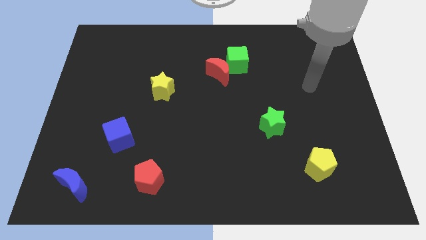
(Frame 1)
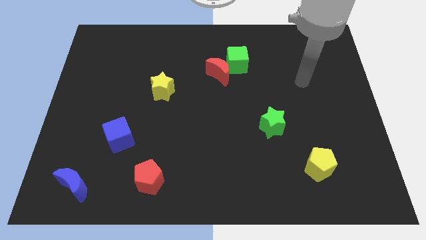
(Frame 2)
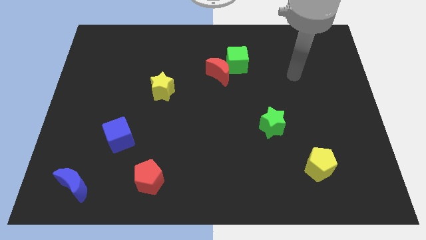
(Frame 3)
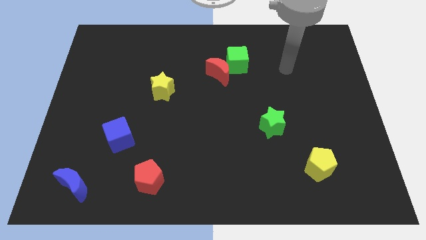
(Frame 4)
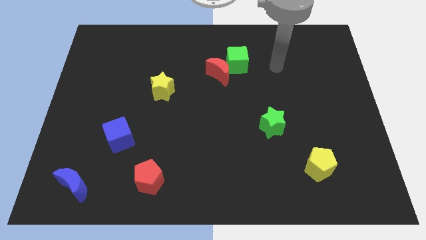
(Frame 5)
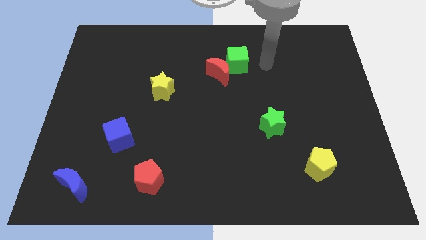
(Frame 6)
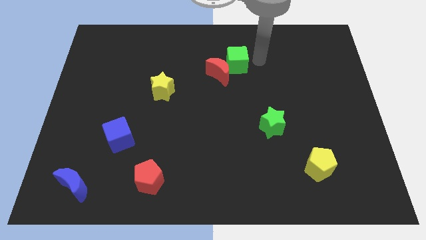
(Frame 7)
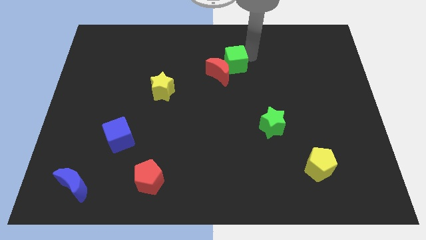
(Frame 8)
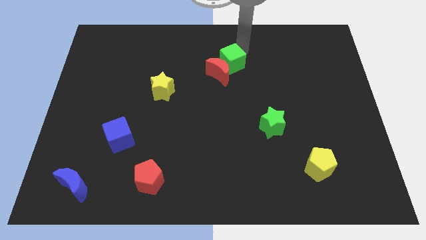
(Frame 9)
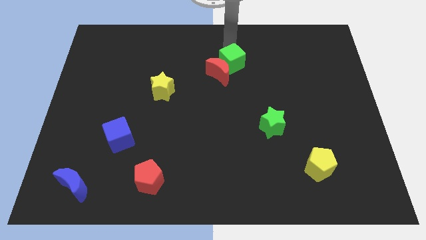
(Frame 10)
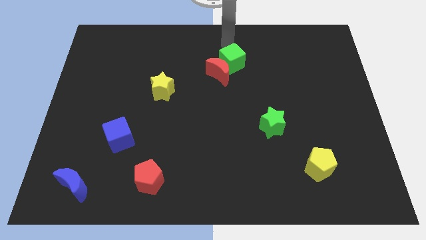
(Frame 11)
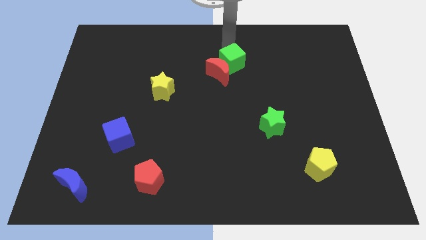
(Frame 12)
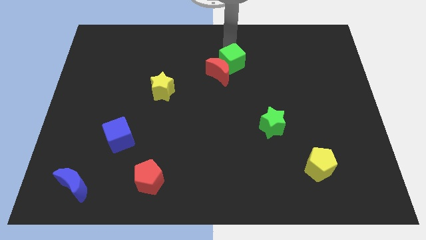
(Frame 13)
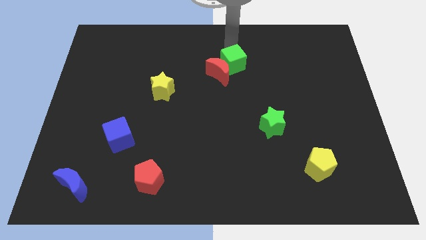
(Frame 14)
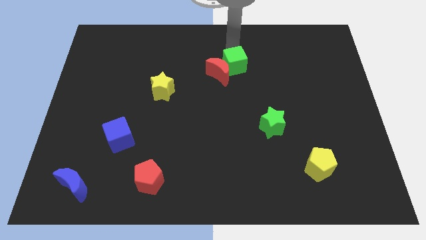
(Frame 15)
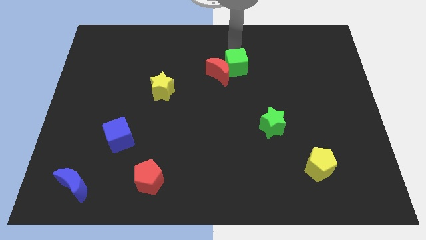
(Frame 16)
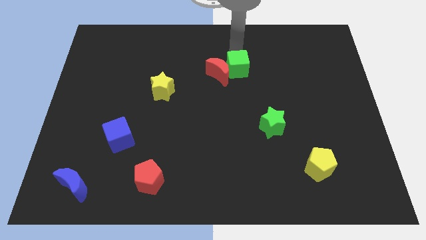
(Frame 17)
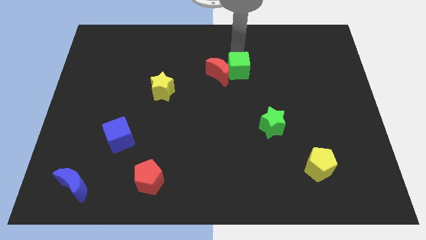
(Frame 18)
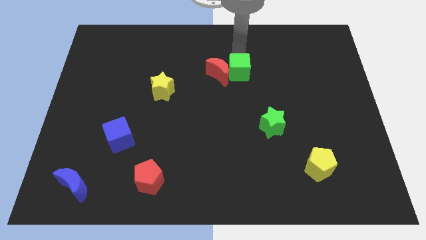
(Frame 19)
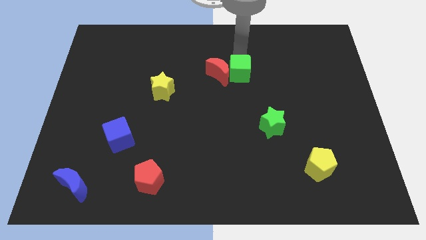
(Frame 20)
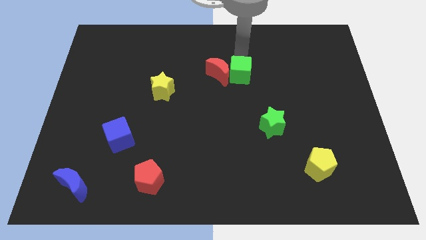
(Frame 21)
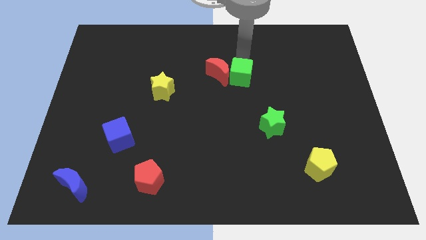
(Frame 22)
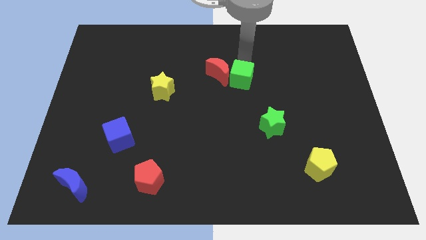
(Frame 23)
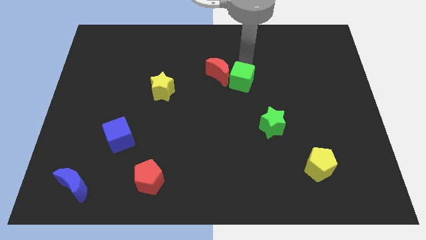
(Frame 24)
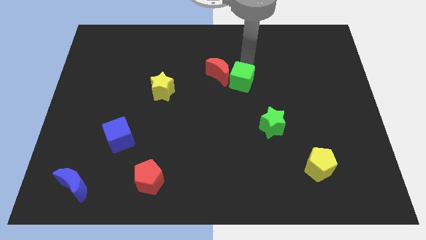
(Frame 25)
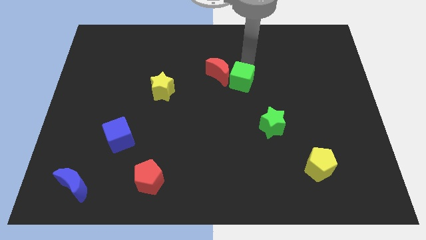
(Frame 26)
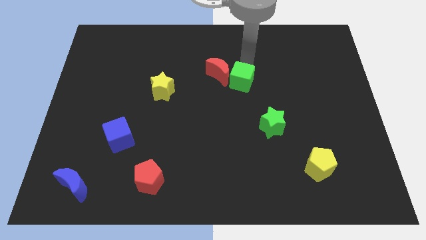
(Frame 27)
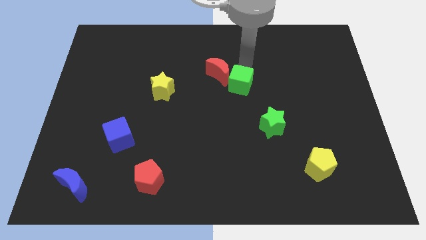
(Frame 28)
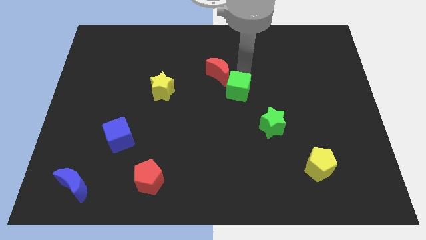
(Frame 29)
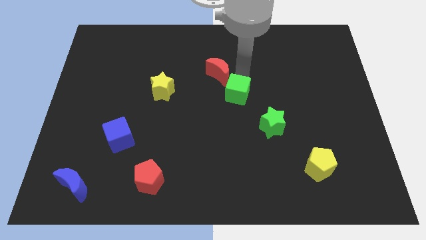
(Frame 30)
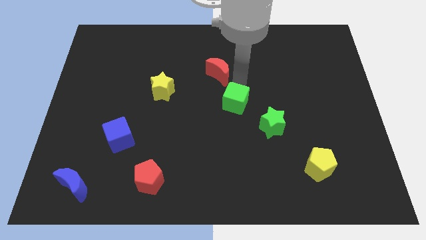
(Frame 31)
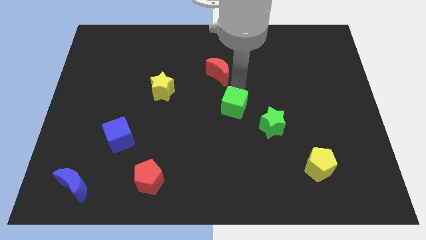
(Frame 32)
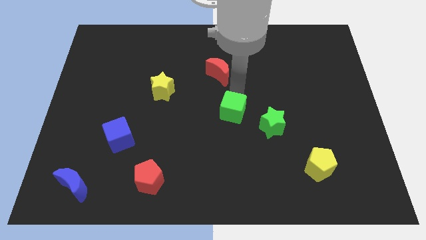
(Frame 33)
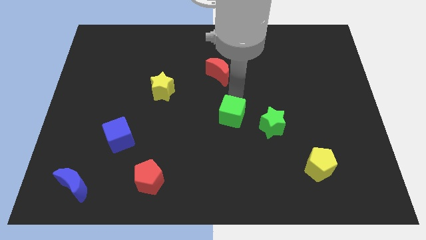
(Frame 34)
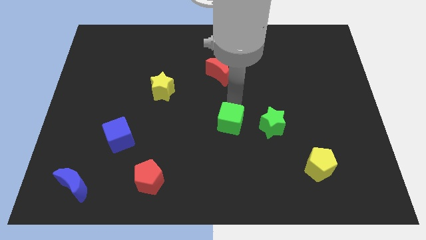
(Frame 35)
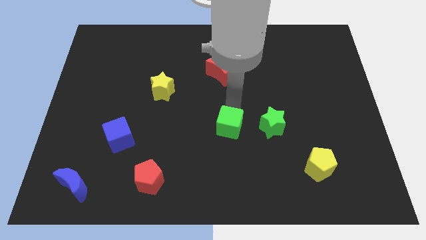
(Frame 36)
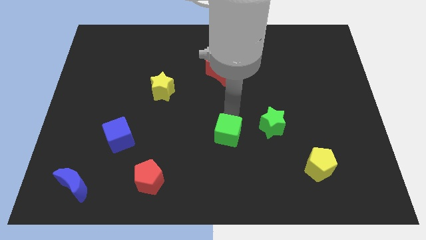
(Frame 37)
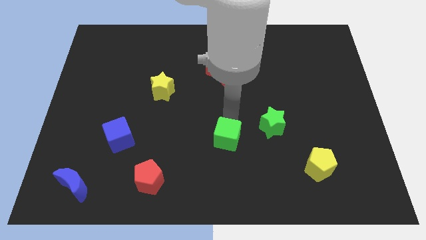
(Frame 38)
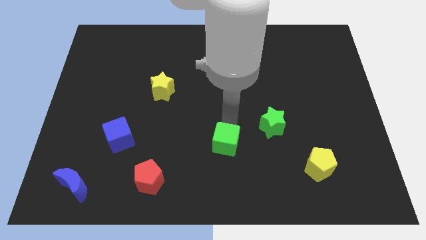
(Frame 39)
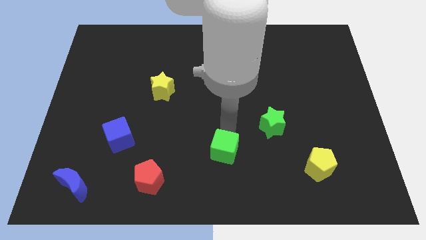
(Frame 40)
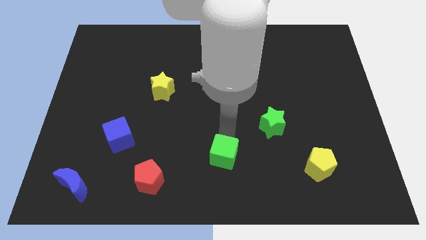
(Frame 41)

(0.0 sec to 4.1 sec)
push the green cube to the bottom

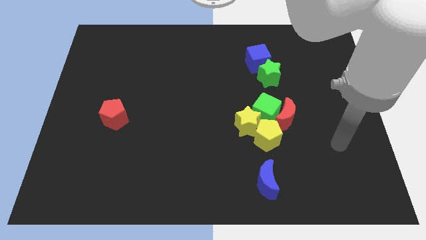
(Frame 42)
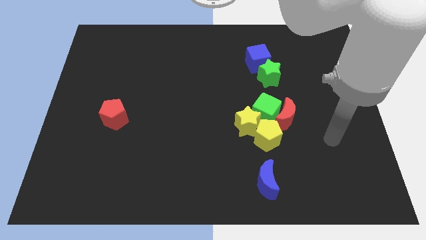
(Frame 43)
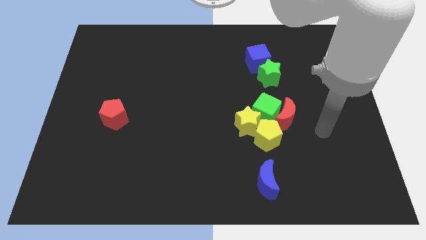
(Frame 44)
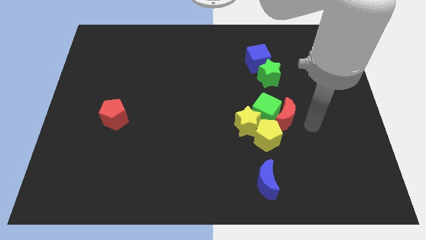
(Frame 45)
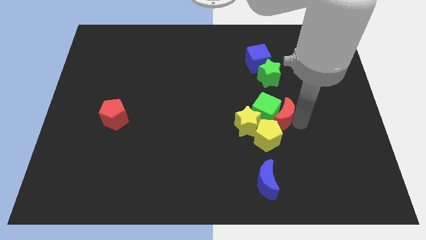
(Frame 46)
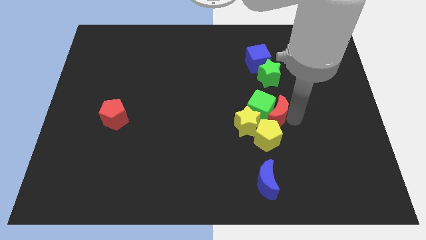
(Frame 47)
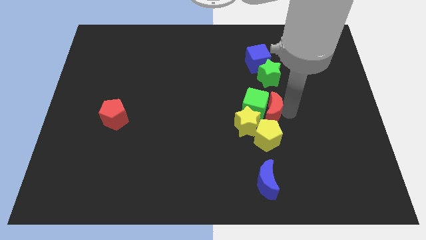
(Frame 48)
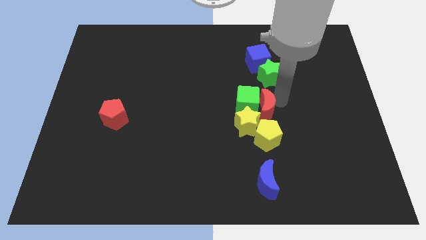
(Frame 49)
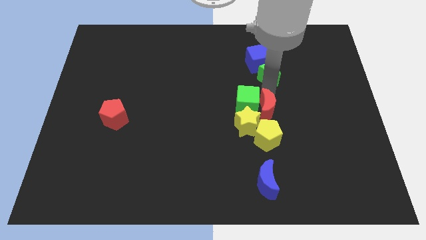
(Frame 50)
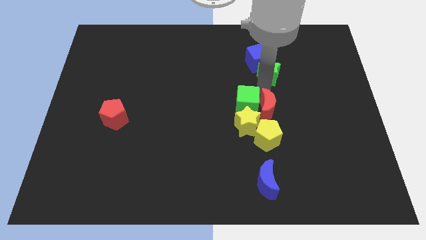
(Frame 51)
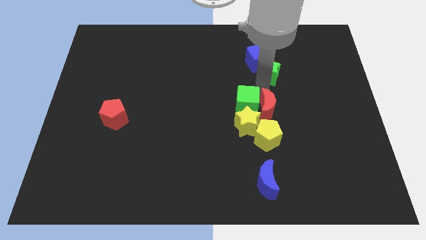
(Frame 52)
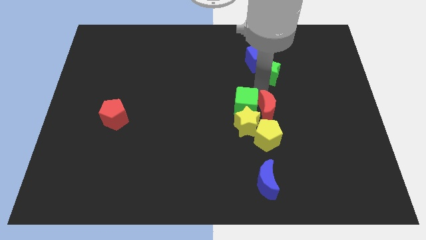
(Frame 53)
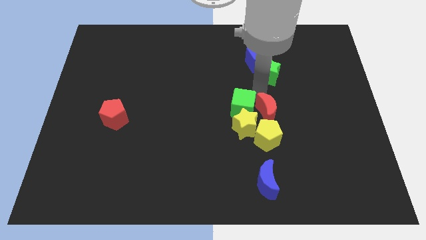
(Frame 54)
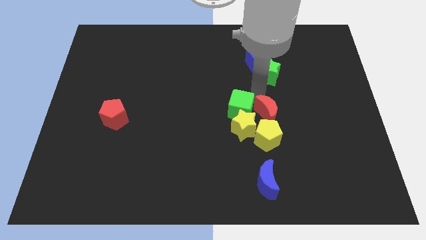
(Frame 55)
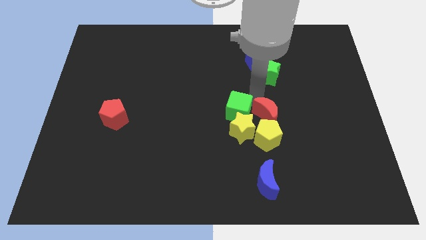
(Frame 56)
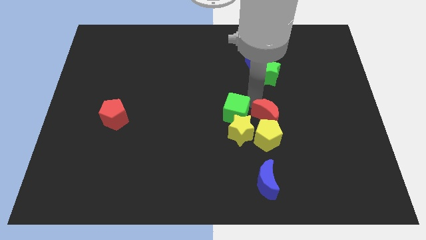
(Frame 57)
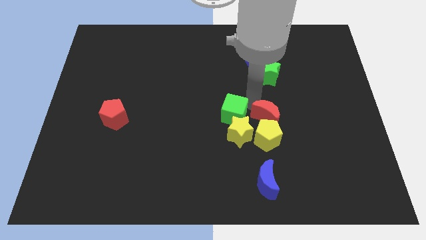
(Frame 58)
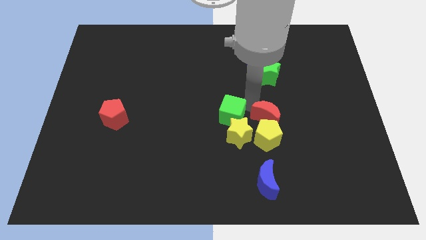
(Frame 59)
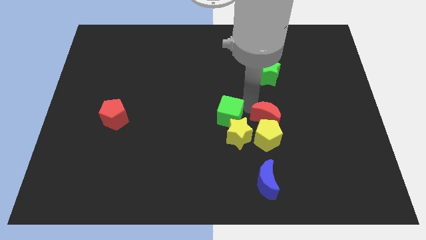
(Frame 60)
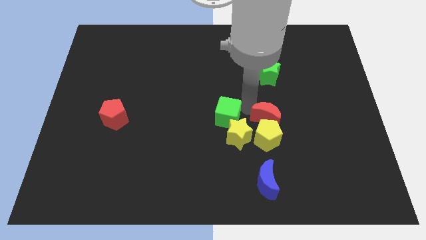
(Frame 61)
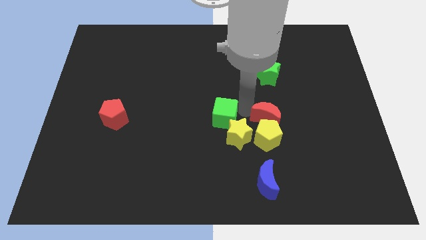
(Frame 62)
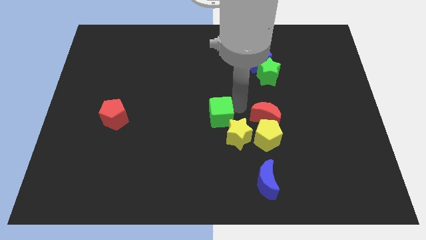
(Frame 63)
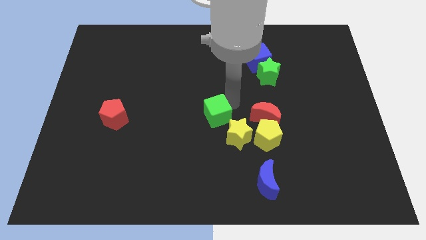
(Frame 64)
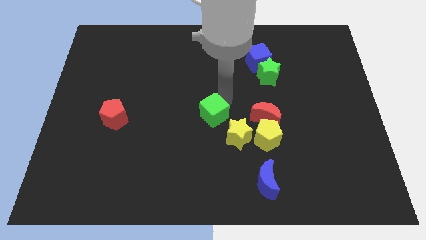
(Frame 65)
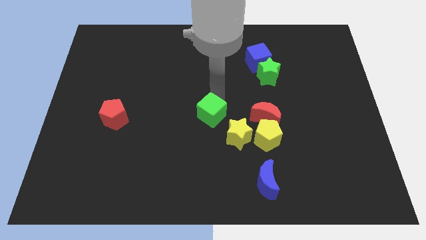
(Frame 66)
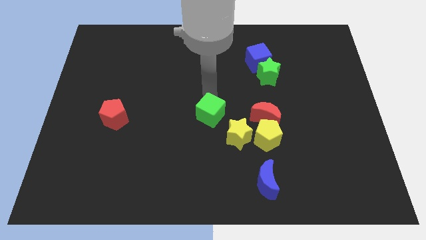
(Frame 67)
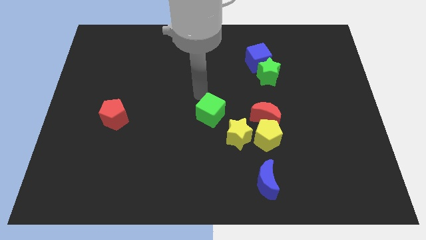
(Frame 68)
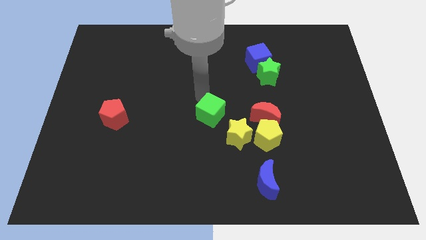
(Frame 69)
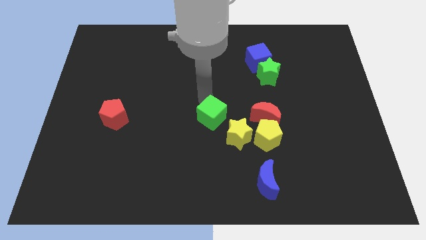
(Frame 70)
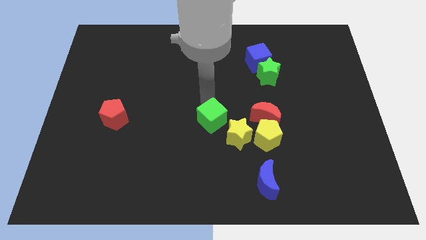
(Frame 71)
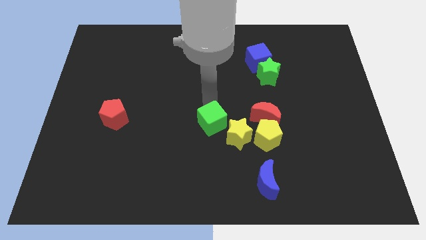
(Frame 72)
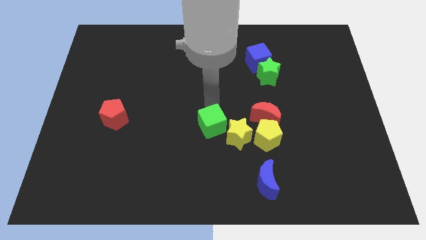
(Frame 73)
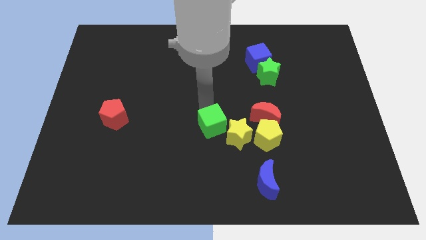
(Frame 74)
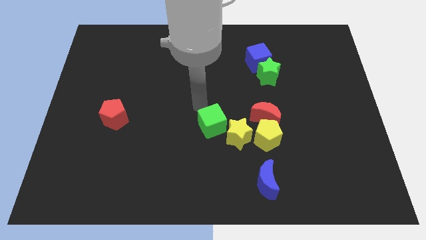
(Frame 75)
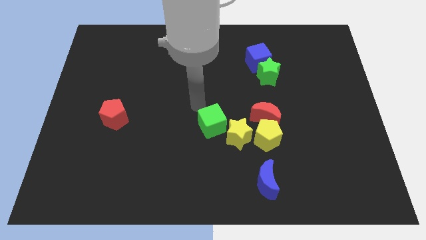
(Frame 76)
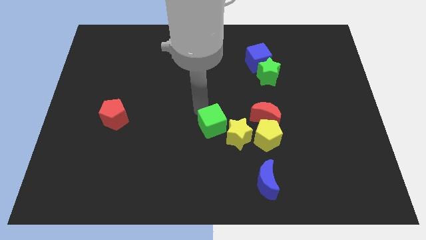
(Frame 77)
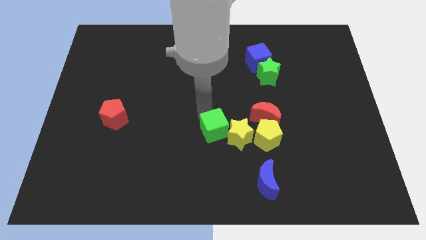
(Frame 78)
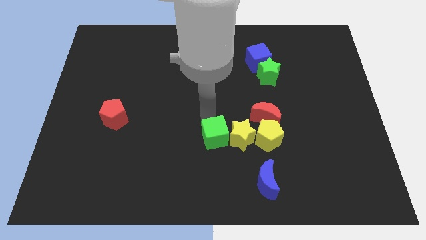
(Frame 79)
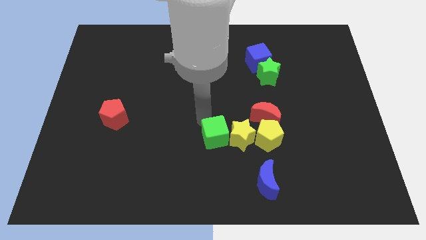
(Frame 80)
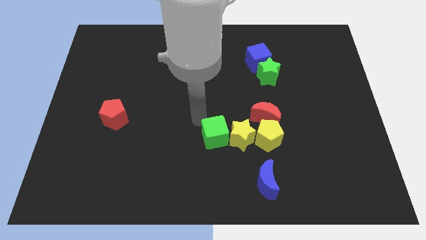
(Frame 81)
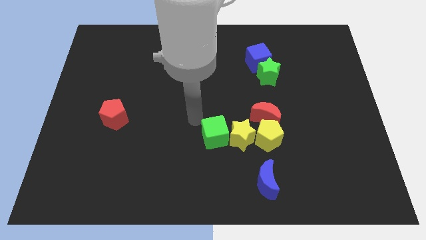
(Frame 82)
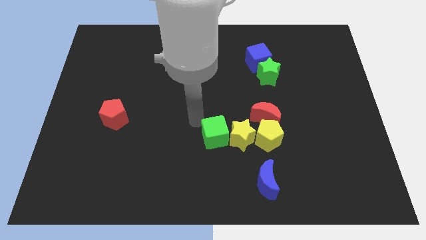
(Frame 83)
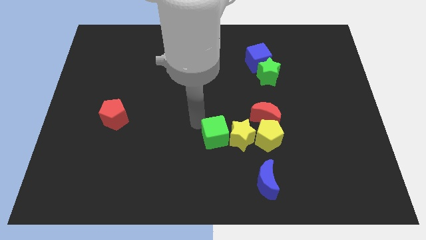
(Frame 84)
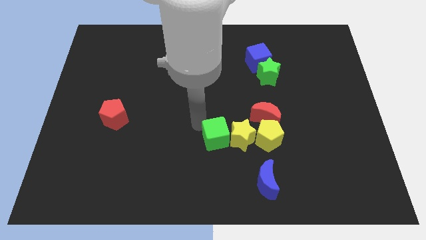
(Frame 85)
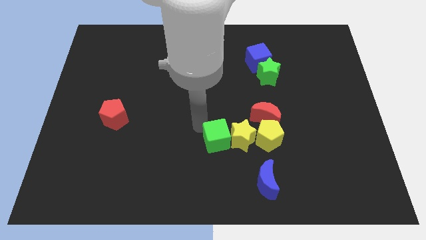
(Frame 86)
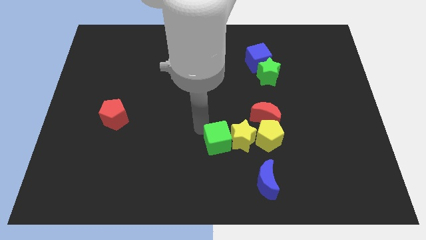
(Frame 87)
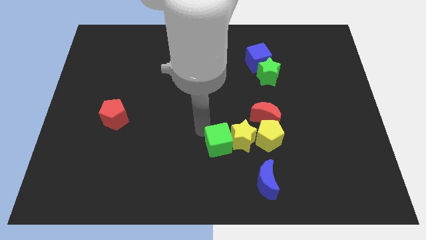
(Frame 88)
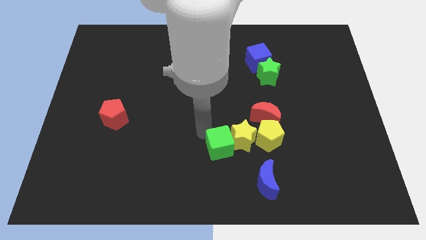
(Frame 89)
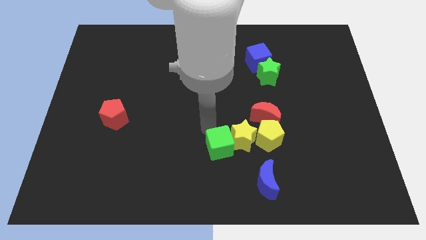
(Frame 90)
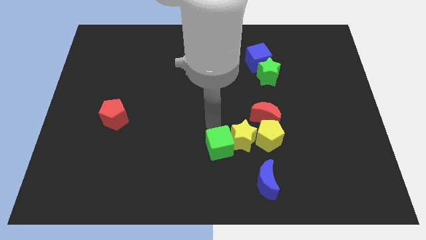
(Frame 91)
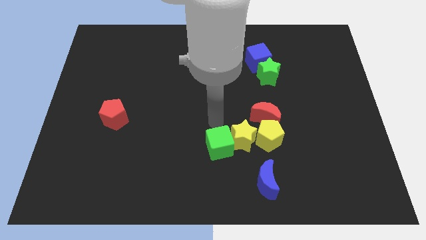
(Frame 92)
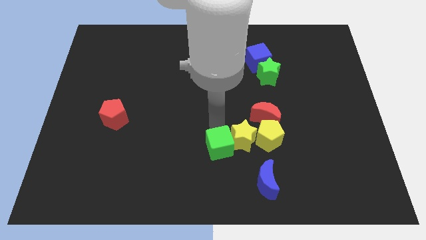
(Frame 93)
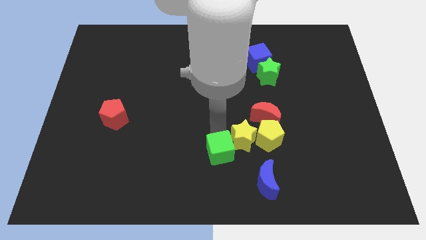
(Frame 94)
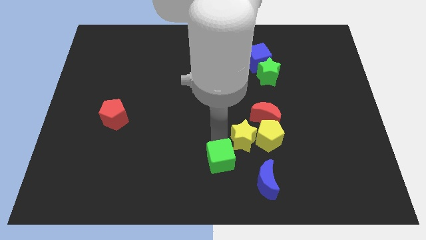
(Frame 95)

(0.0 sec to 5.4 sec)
put the green cube to the bottom
